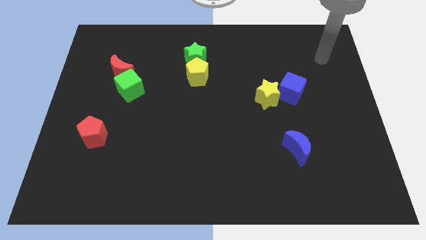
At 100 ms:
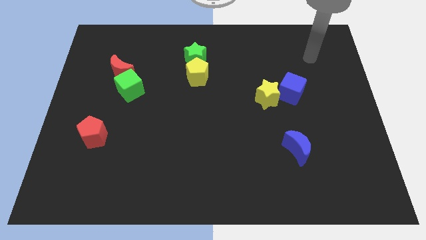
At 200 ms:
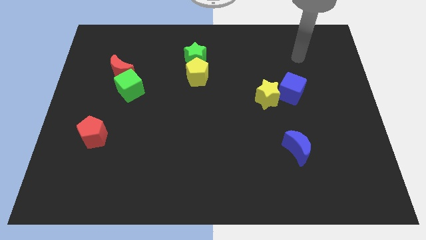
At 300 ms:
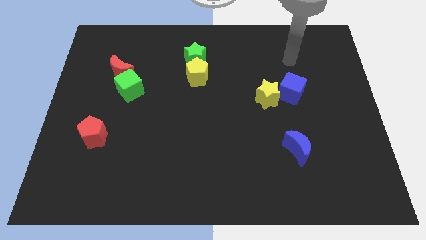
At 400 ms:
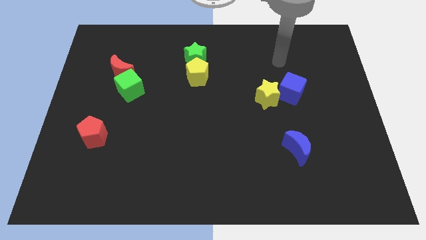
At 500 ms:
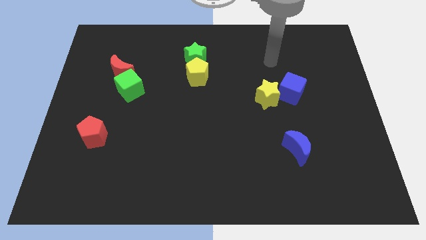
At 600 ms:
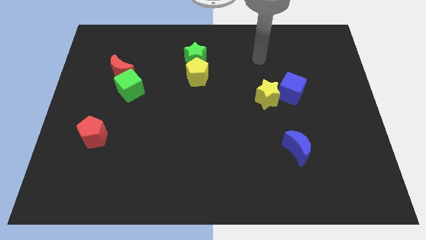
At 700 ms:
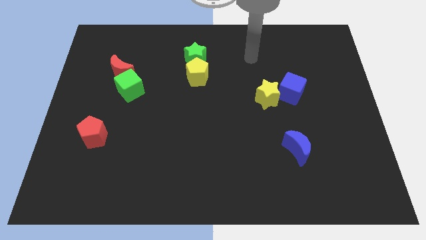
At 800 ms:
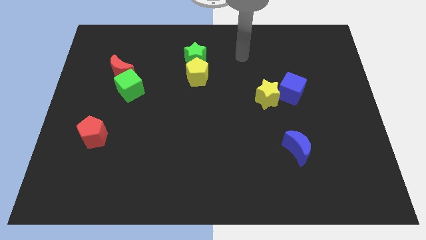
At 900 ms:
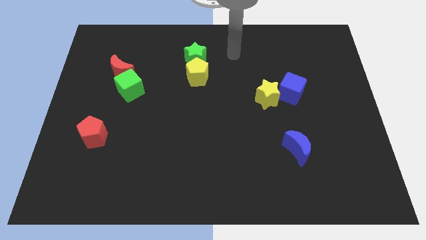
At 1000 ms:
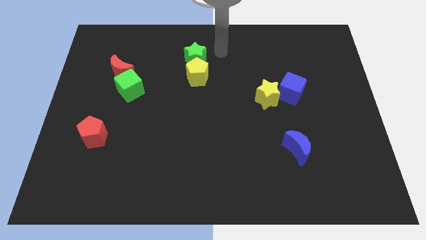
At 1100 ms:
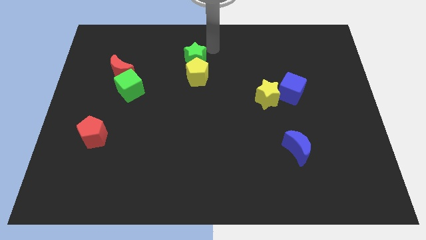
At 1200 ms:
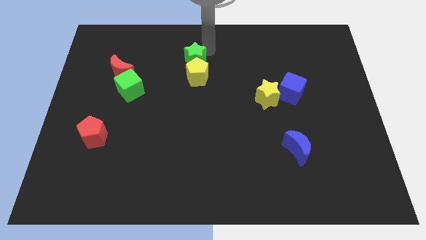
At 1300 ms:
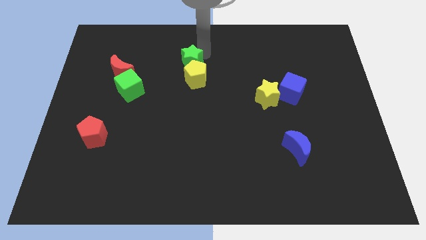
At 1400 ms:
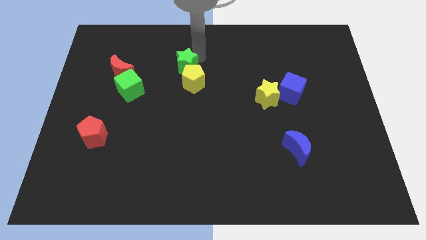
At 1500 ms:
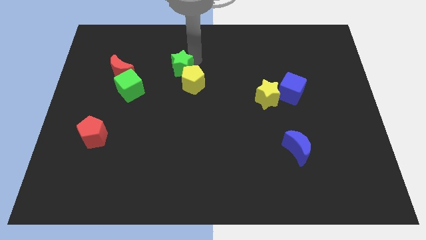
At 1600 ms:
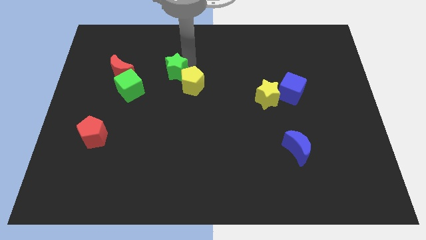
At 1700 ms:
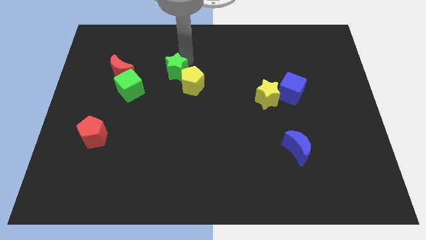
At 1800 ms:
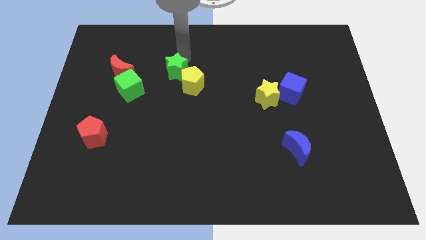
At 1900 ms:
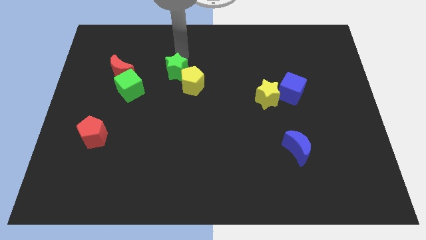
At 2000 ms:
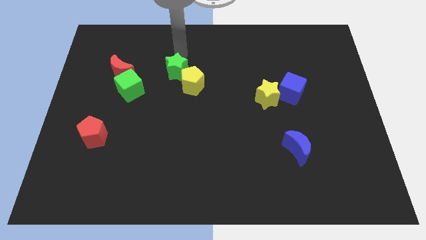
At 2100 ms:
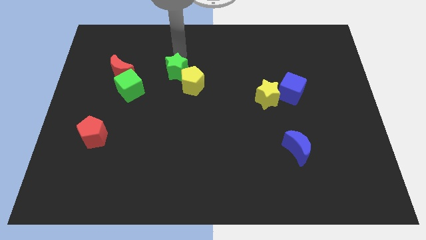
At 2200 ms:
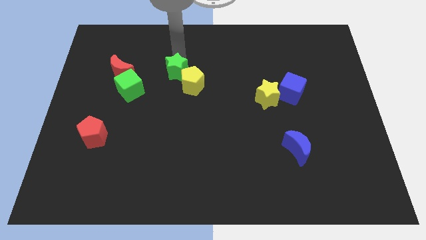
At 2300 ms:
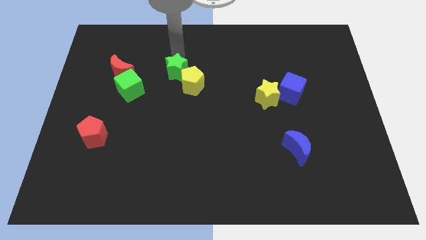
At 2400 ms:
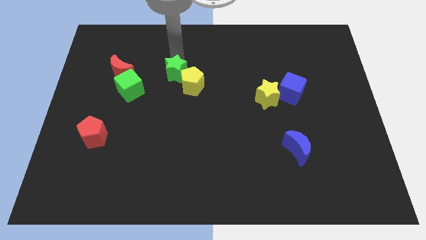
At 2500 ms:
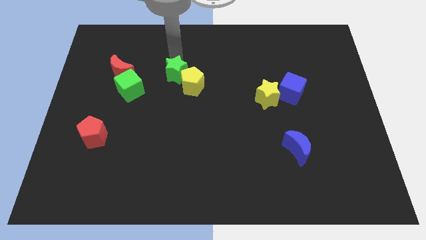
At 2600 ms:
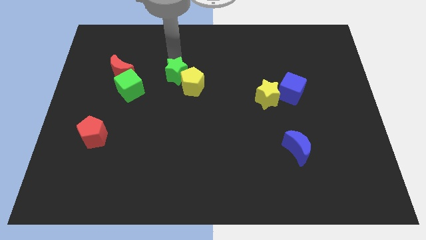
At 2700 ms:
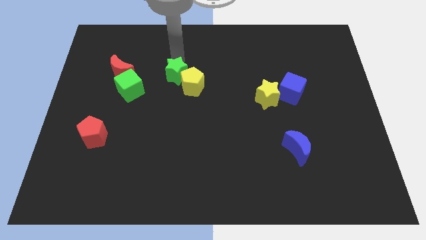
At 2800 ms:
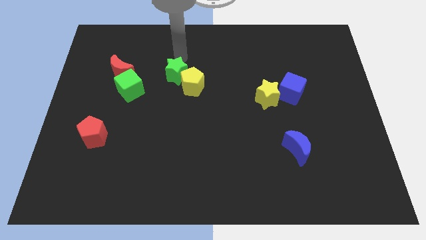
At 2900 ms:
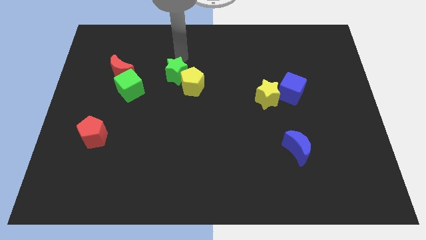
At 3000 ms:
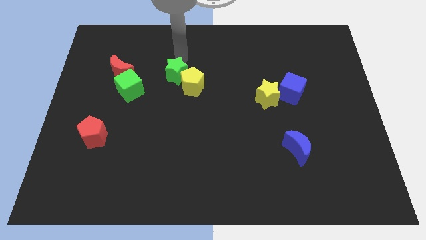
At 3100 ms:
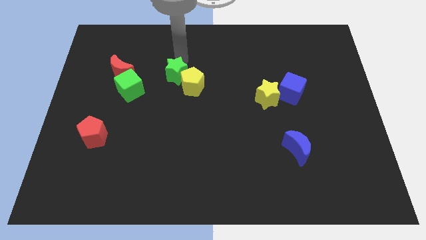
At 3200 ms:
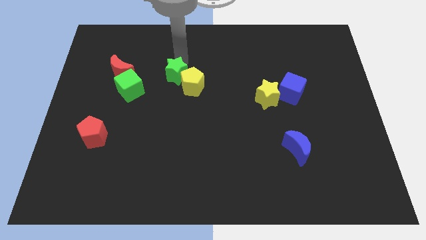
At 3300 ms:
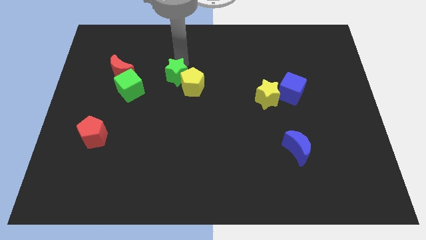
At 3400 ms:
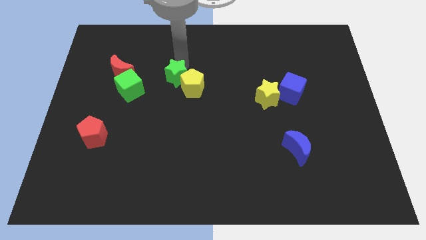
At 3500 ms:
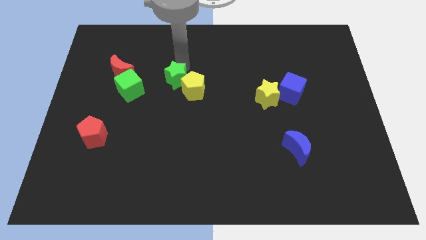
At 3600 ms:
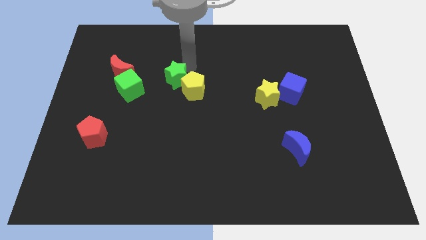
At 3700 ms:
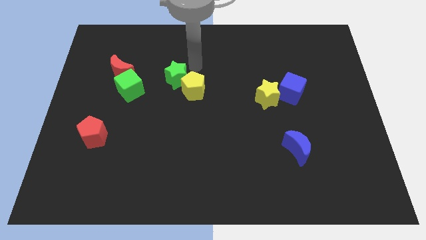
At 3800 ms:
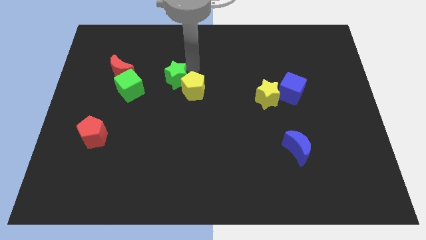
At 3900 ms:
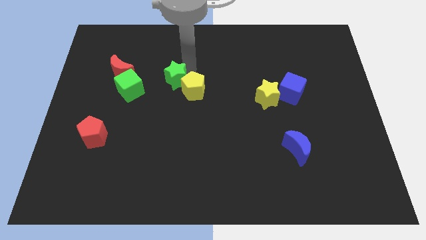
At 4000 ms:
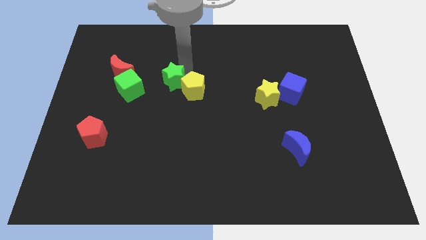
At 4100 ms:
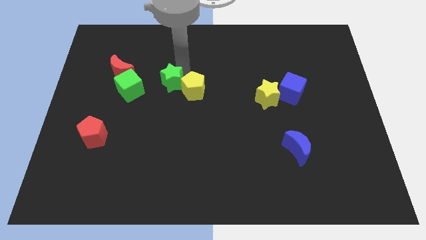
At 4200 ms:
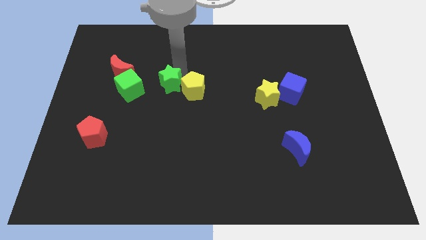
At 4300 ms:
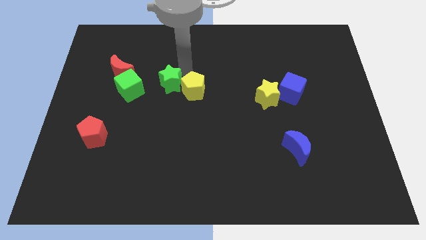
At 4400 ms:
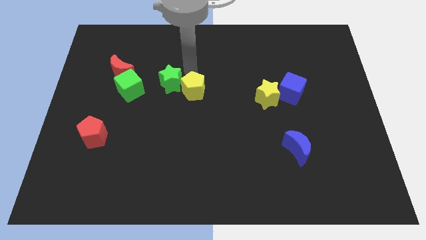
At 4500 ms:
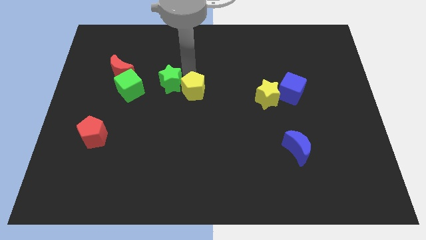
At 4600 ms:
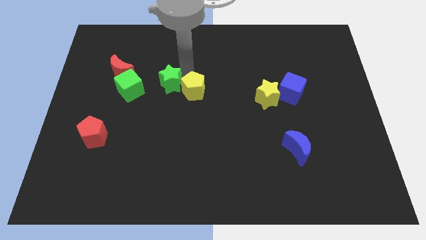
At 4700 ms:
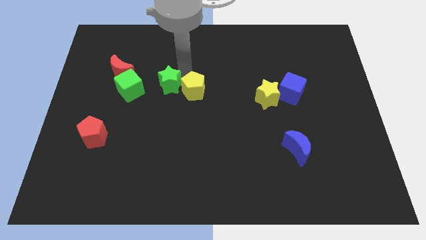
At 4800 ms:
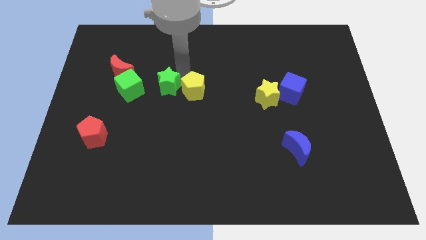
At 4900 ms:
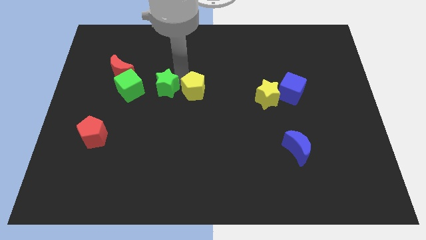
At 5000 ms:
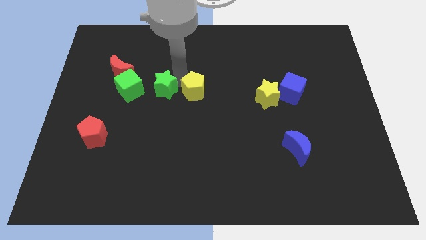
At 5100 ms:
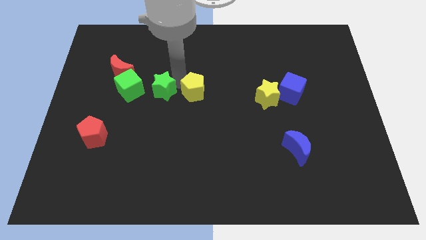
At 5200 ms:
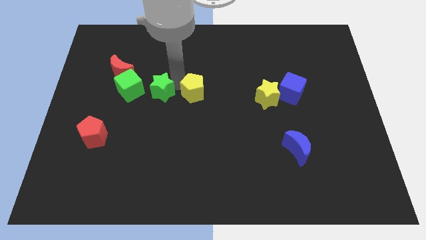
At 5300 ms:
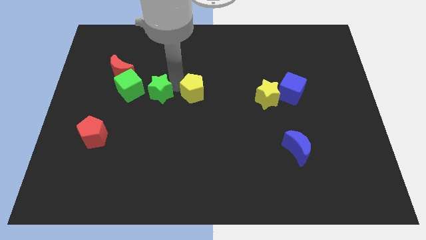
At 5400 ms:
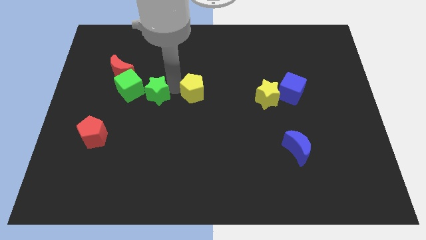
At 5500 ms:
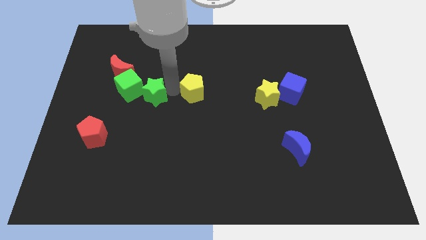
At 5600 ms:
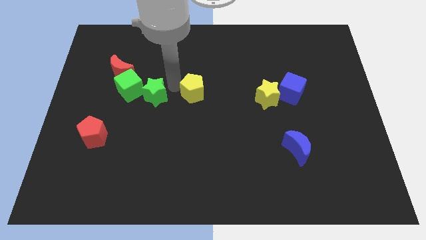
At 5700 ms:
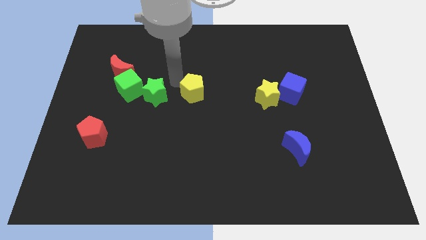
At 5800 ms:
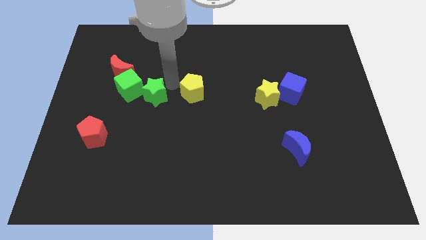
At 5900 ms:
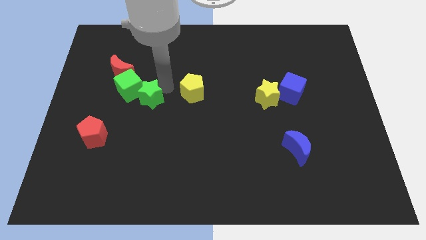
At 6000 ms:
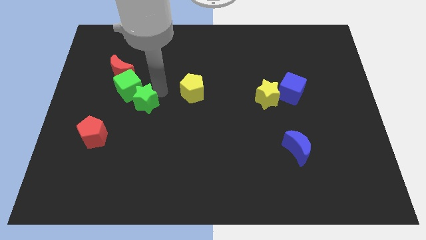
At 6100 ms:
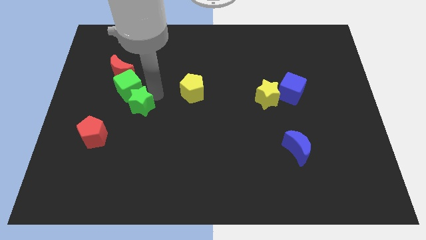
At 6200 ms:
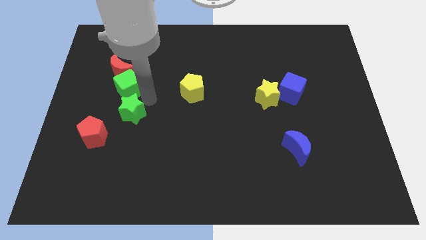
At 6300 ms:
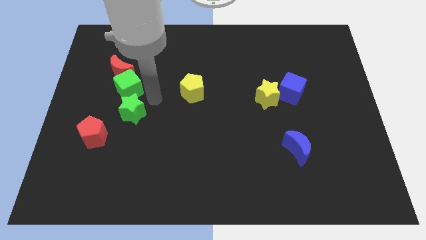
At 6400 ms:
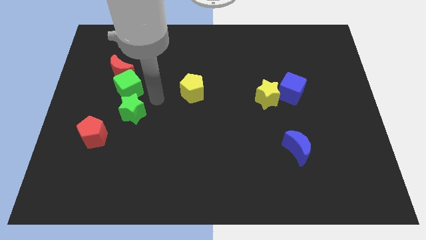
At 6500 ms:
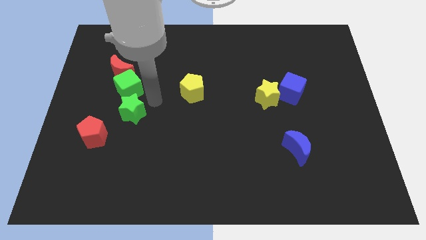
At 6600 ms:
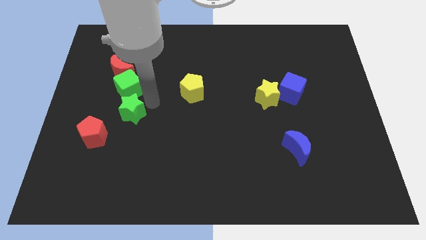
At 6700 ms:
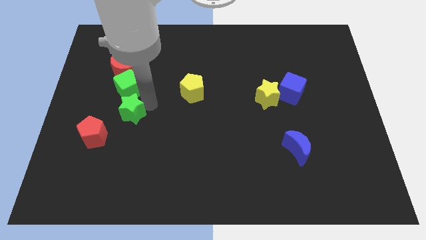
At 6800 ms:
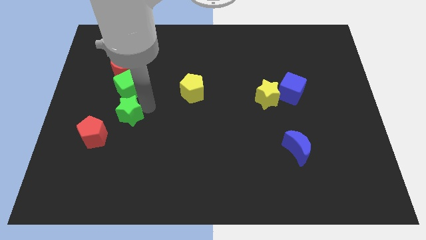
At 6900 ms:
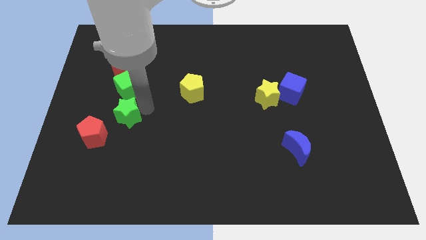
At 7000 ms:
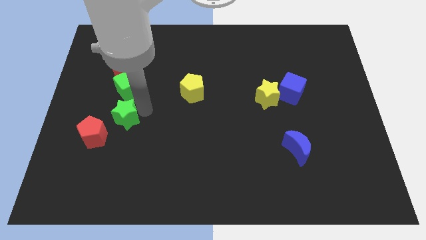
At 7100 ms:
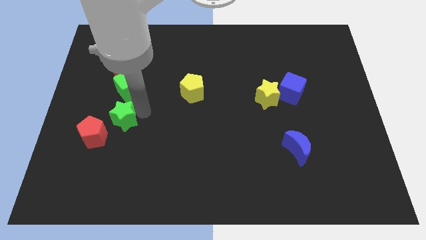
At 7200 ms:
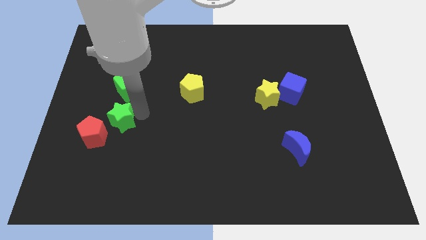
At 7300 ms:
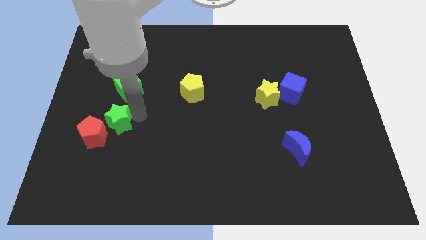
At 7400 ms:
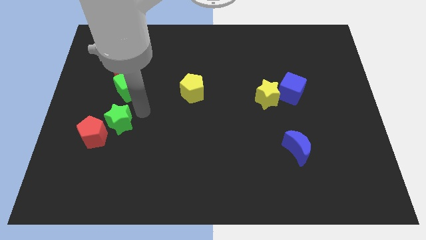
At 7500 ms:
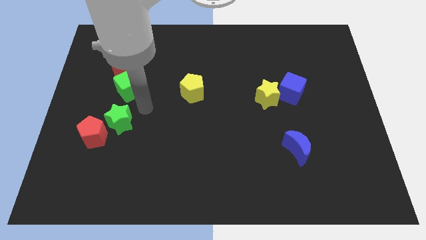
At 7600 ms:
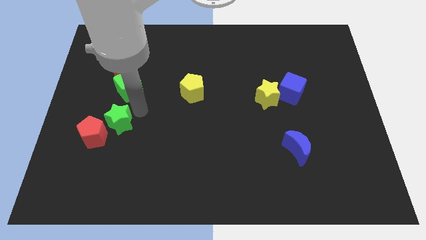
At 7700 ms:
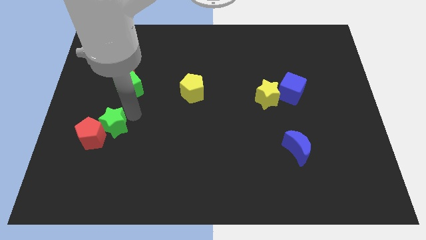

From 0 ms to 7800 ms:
move the green star towards the red pentagon
